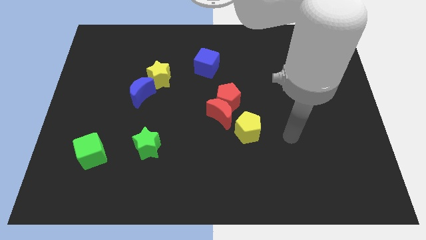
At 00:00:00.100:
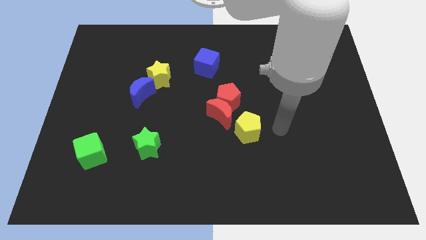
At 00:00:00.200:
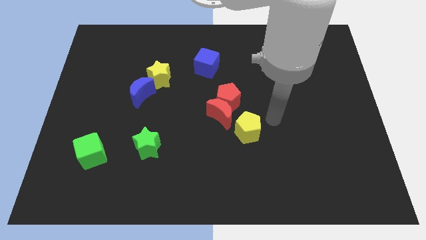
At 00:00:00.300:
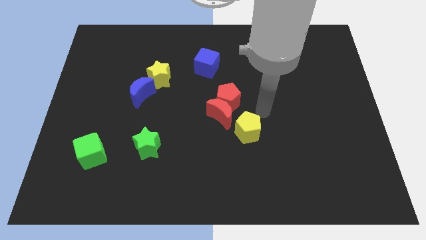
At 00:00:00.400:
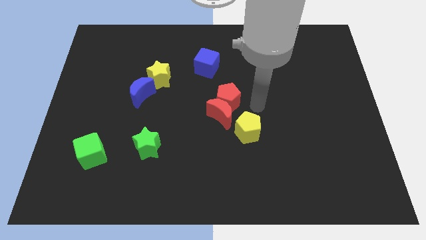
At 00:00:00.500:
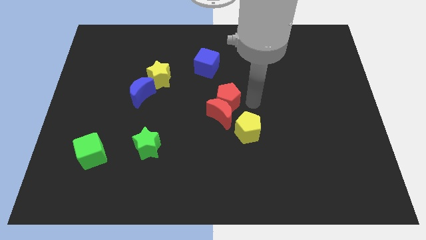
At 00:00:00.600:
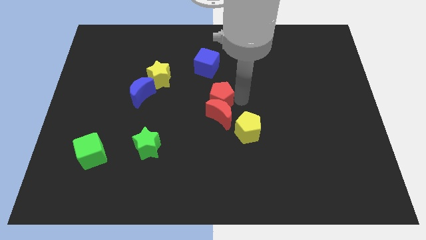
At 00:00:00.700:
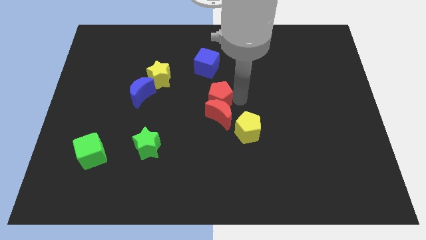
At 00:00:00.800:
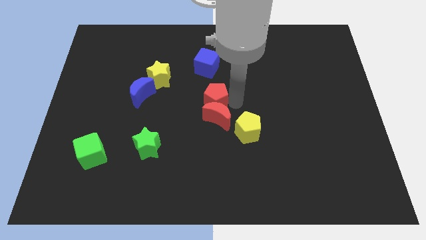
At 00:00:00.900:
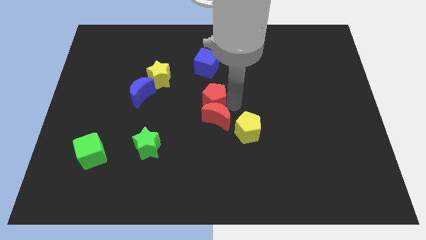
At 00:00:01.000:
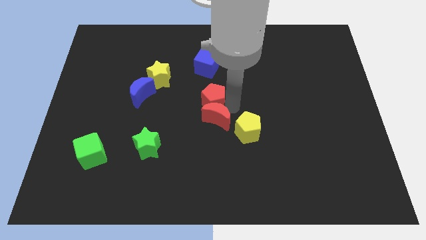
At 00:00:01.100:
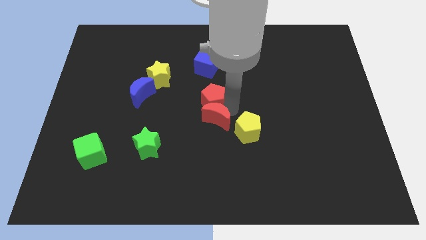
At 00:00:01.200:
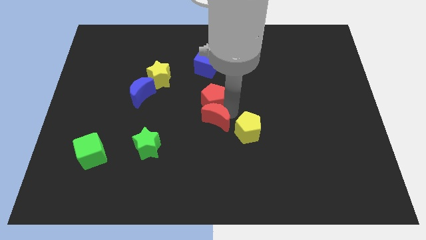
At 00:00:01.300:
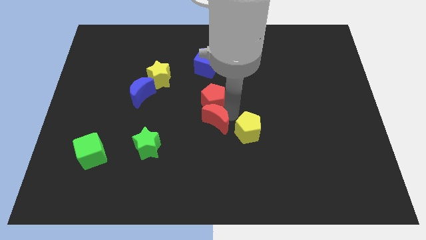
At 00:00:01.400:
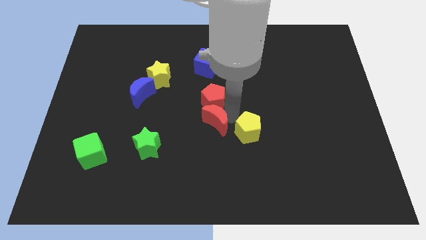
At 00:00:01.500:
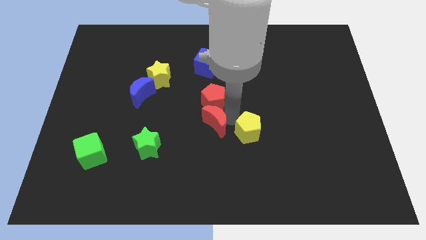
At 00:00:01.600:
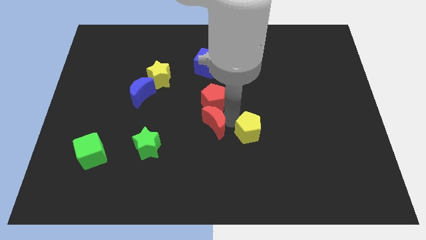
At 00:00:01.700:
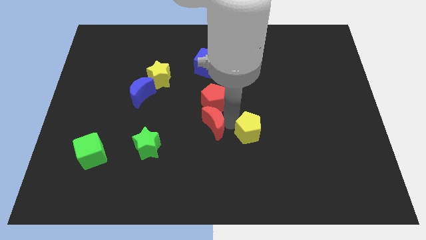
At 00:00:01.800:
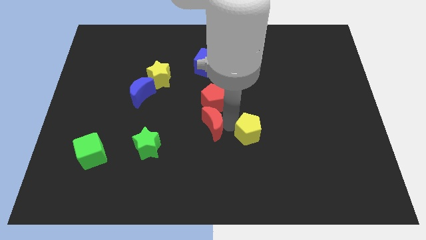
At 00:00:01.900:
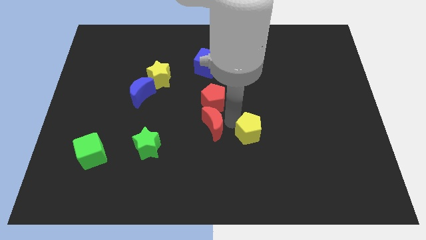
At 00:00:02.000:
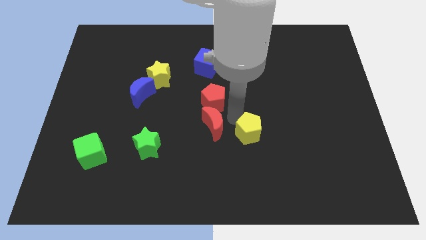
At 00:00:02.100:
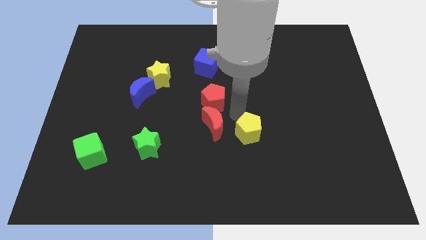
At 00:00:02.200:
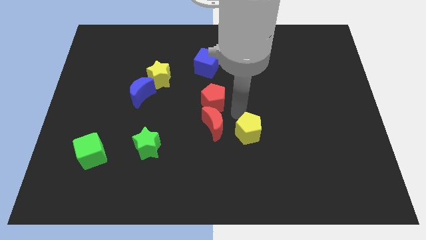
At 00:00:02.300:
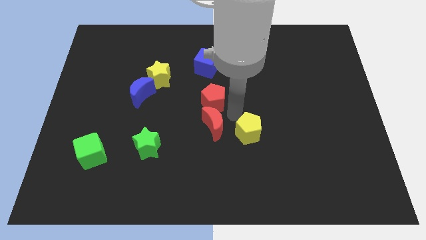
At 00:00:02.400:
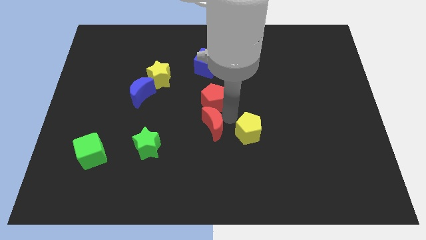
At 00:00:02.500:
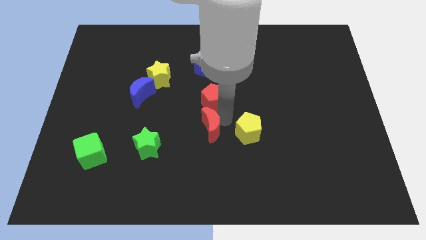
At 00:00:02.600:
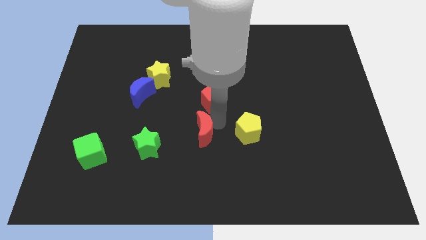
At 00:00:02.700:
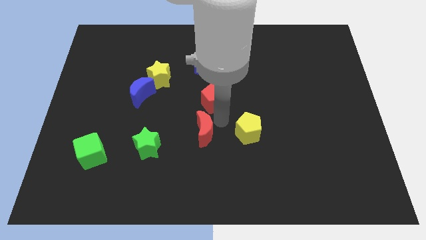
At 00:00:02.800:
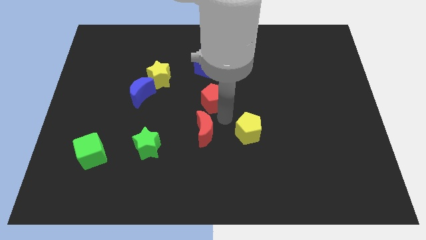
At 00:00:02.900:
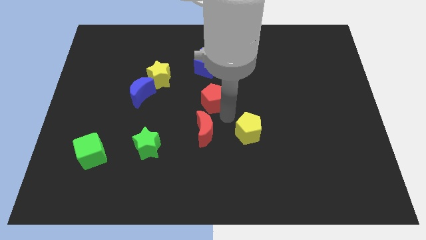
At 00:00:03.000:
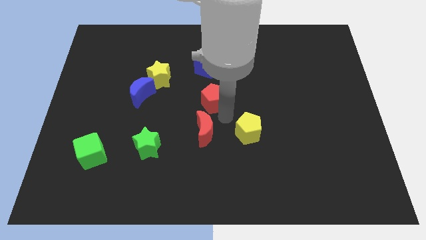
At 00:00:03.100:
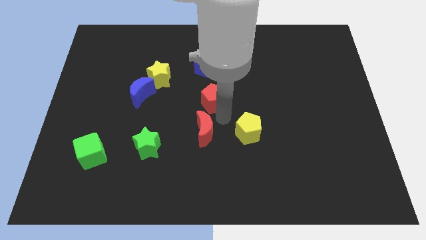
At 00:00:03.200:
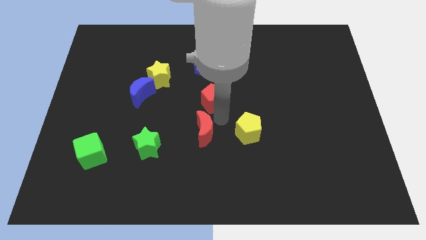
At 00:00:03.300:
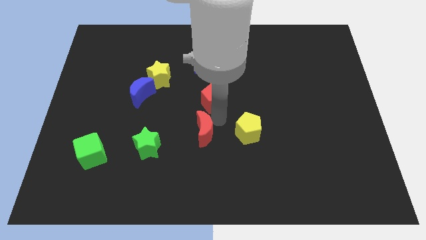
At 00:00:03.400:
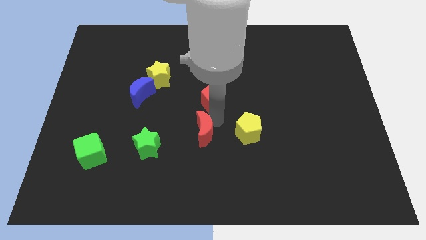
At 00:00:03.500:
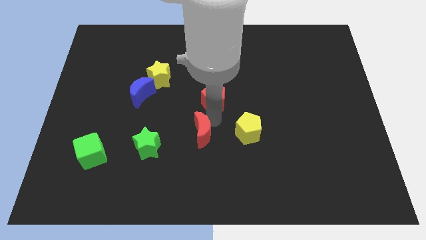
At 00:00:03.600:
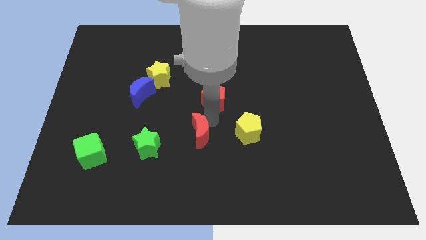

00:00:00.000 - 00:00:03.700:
slightly push the red moon downwards and left diagonally

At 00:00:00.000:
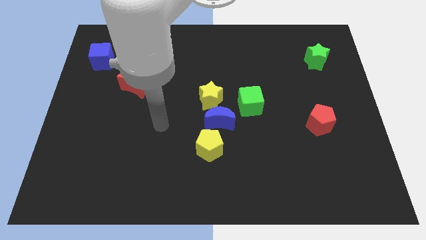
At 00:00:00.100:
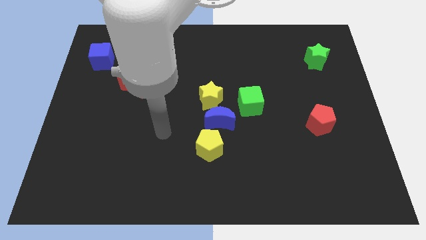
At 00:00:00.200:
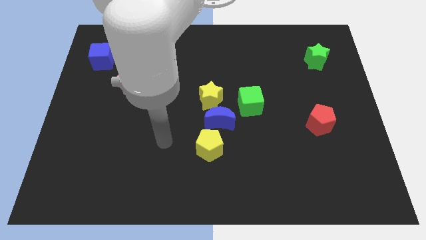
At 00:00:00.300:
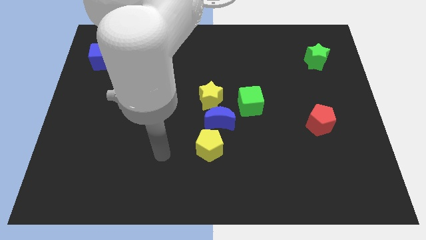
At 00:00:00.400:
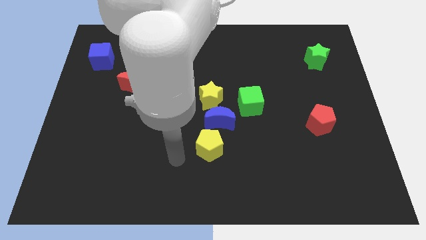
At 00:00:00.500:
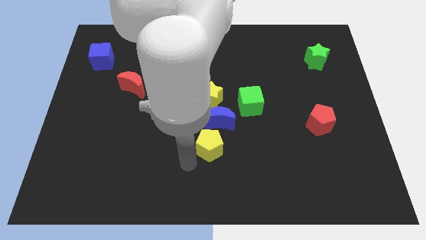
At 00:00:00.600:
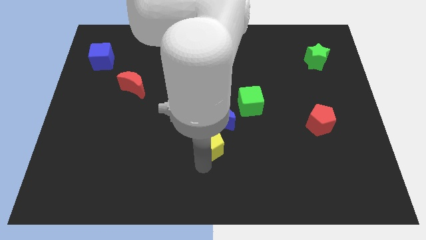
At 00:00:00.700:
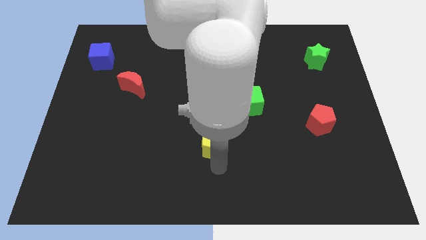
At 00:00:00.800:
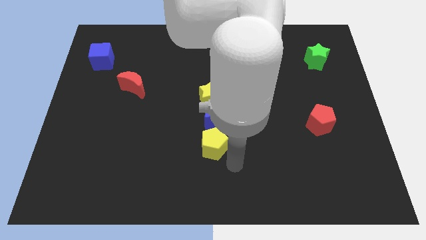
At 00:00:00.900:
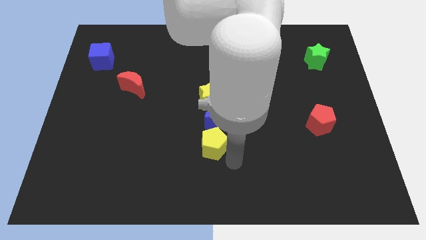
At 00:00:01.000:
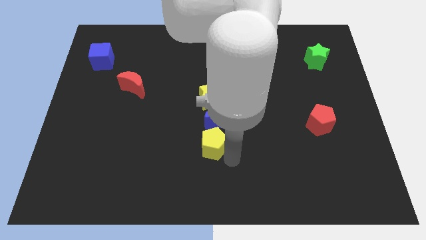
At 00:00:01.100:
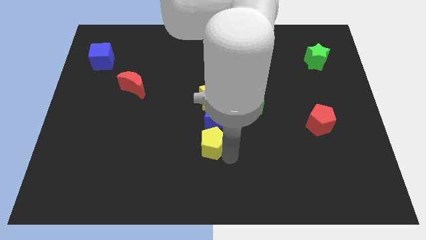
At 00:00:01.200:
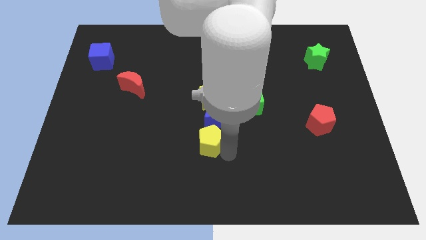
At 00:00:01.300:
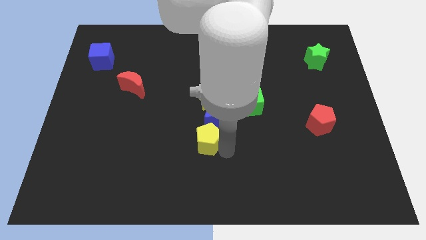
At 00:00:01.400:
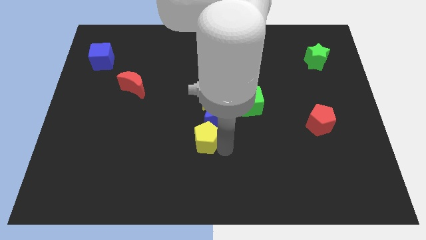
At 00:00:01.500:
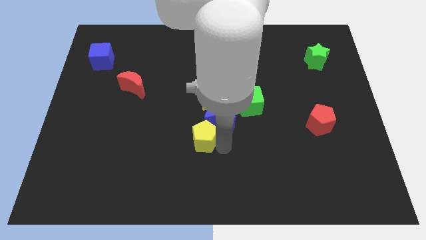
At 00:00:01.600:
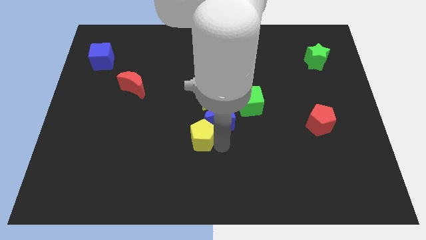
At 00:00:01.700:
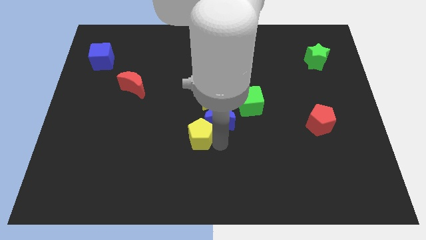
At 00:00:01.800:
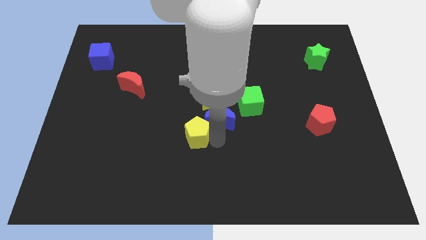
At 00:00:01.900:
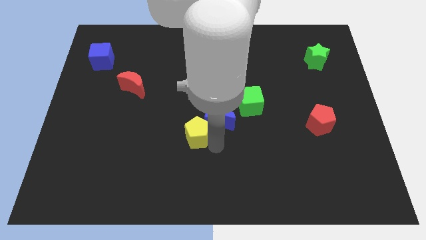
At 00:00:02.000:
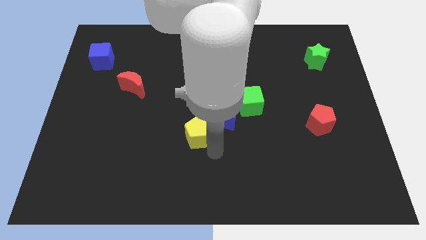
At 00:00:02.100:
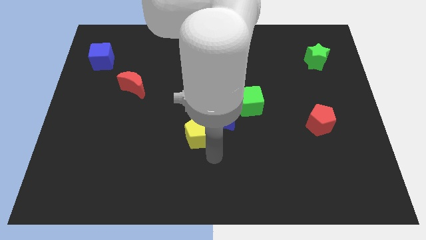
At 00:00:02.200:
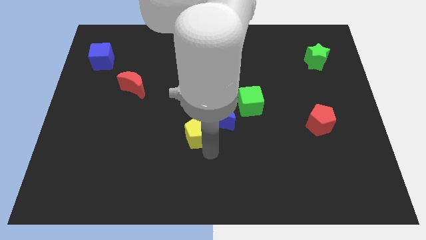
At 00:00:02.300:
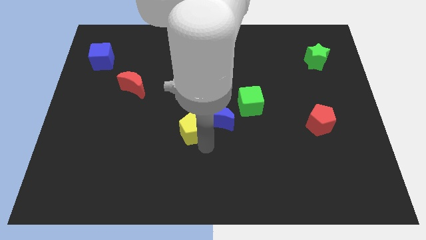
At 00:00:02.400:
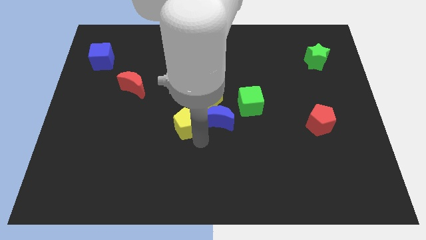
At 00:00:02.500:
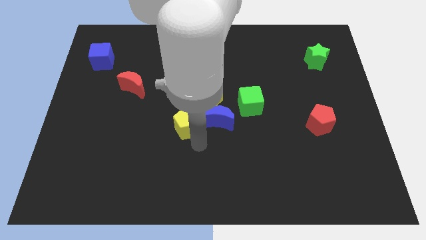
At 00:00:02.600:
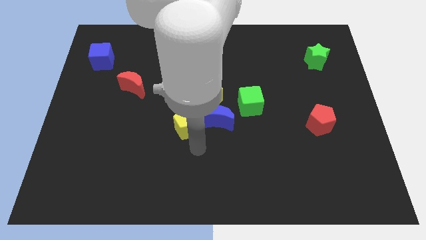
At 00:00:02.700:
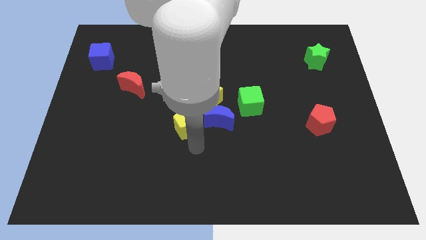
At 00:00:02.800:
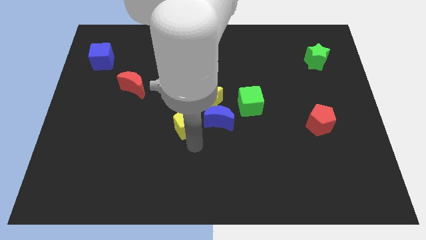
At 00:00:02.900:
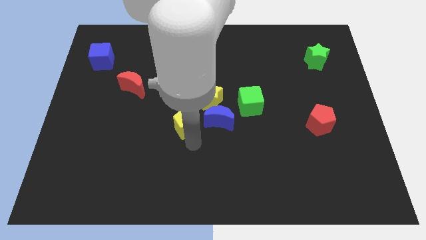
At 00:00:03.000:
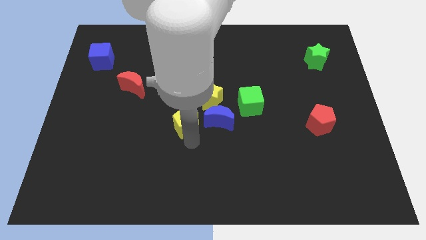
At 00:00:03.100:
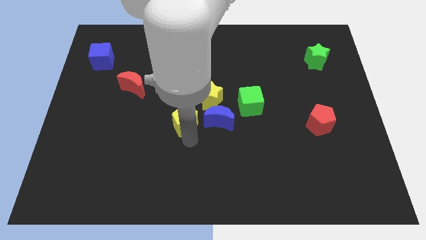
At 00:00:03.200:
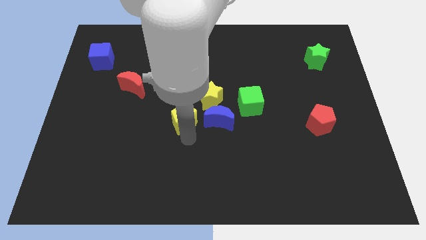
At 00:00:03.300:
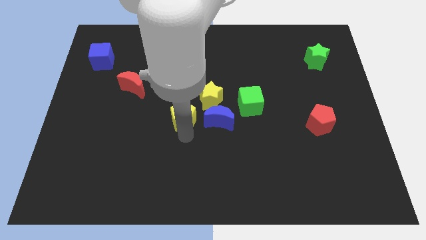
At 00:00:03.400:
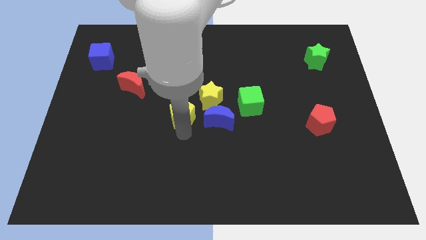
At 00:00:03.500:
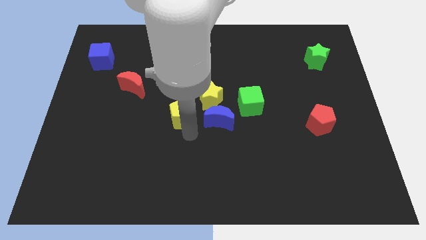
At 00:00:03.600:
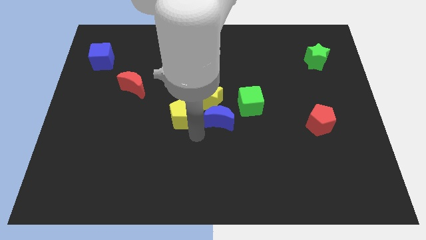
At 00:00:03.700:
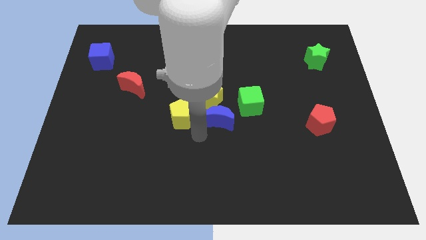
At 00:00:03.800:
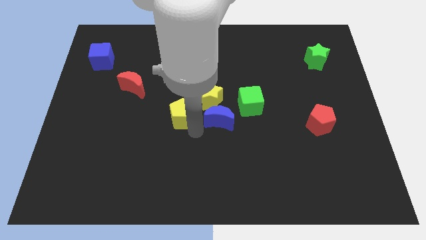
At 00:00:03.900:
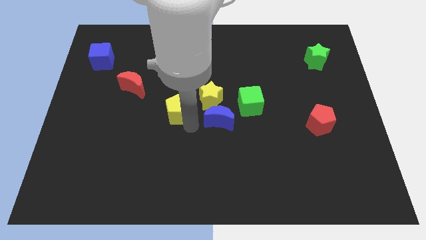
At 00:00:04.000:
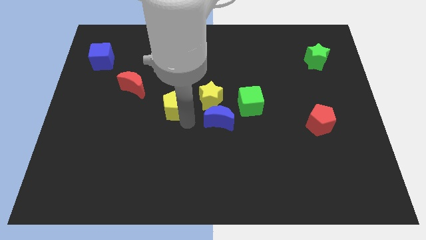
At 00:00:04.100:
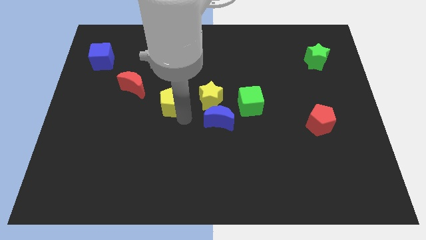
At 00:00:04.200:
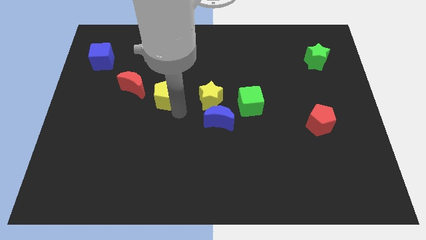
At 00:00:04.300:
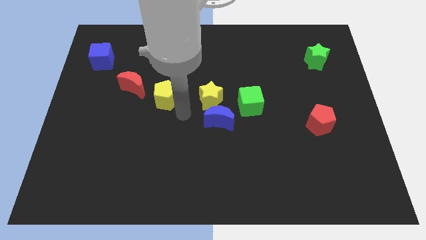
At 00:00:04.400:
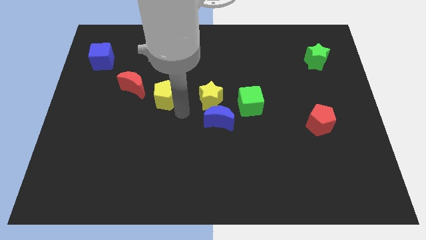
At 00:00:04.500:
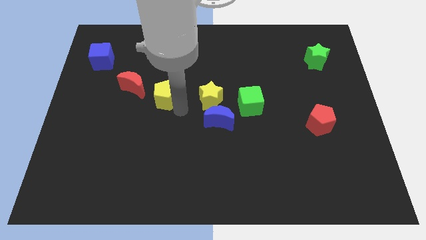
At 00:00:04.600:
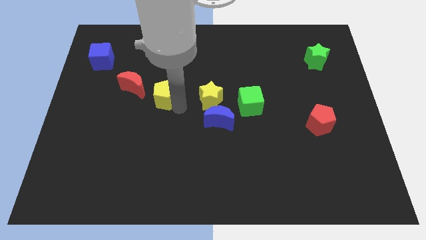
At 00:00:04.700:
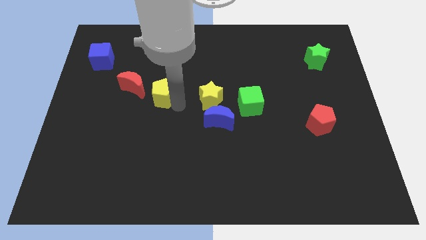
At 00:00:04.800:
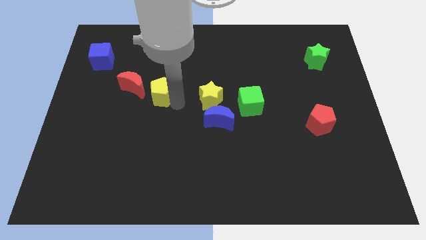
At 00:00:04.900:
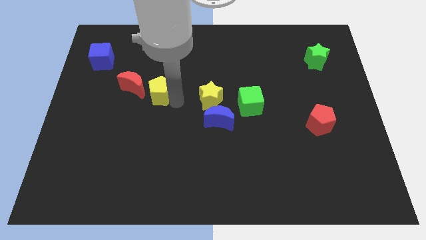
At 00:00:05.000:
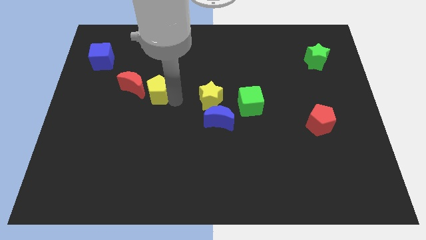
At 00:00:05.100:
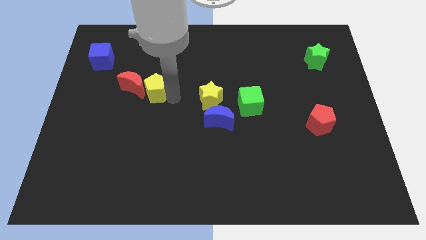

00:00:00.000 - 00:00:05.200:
slide the yellow pentagon up and then left
